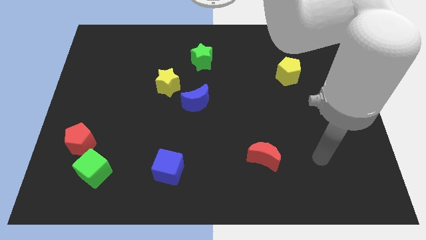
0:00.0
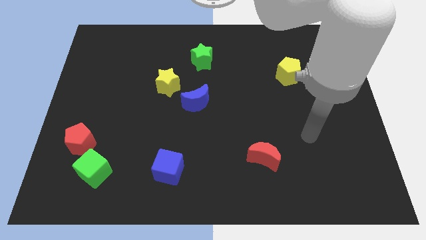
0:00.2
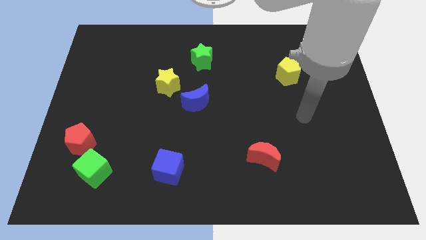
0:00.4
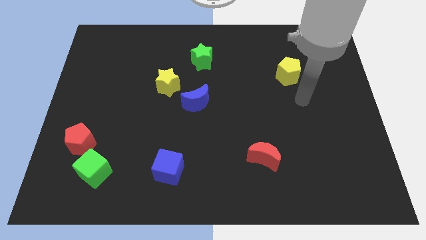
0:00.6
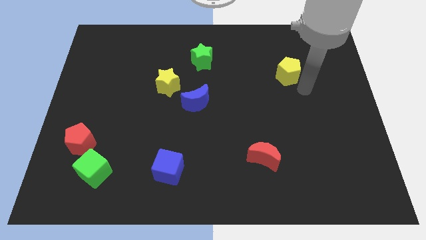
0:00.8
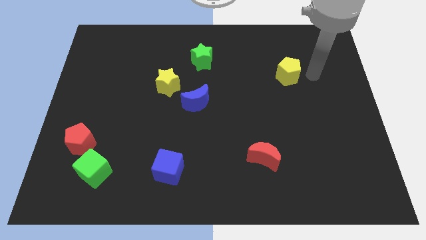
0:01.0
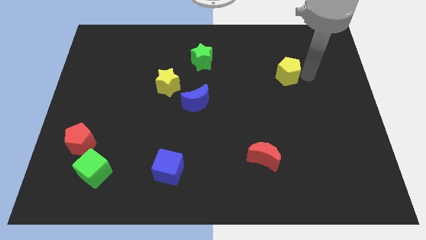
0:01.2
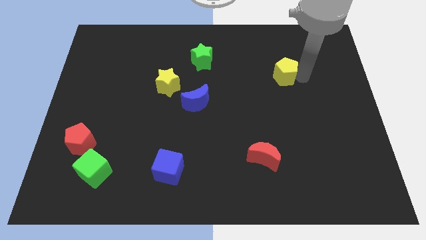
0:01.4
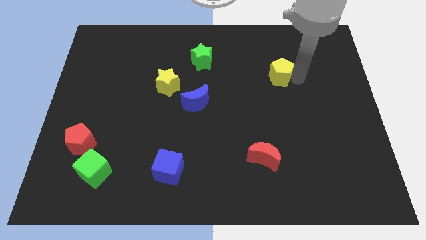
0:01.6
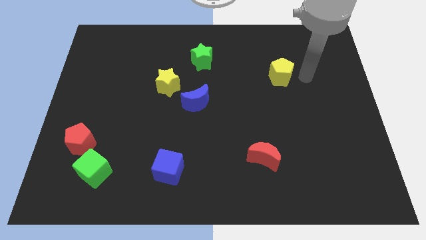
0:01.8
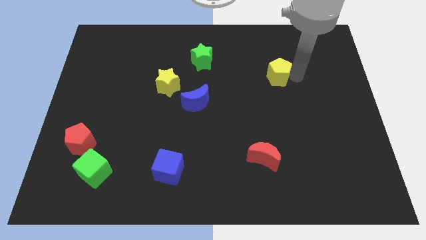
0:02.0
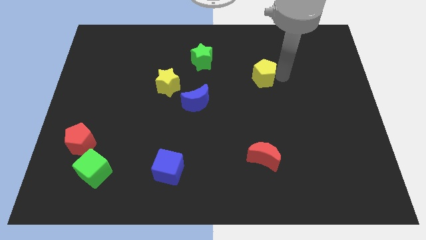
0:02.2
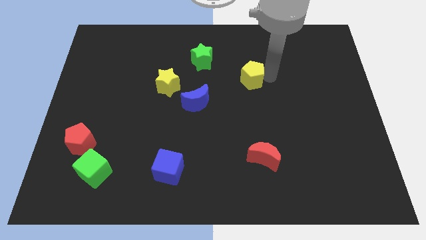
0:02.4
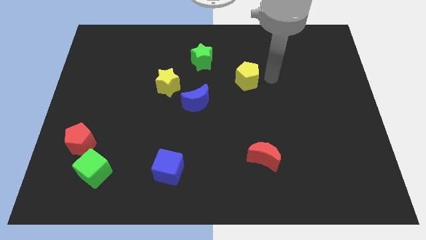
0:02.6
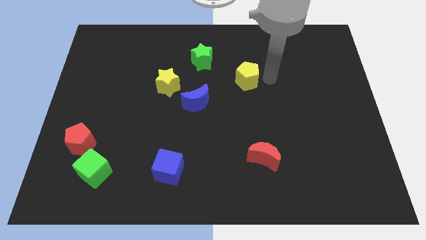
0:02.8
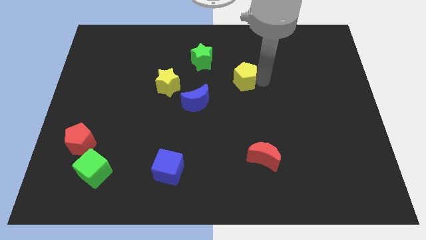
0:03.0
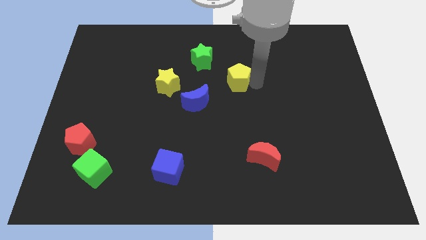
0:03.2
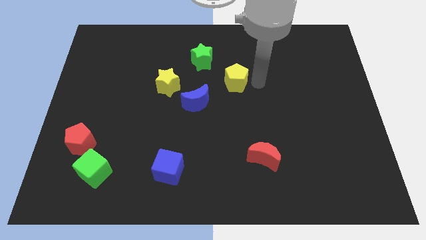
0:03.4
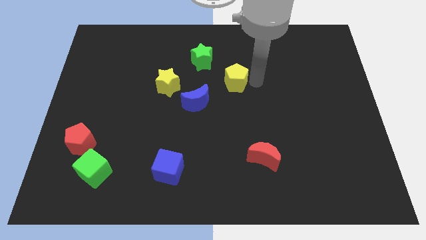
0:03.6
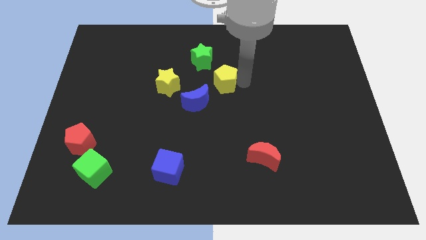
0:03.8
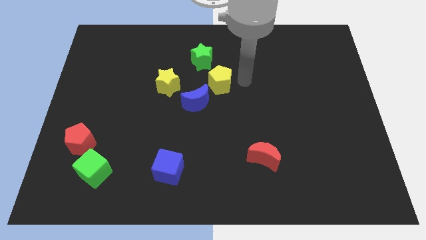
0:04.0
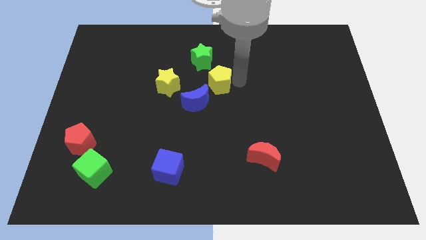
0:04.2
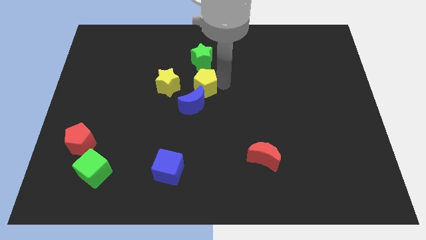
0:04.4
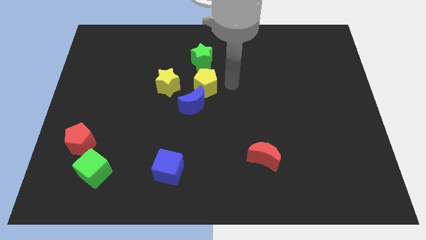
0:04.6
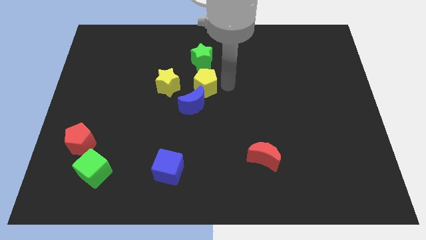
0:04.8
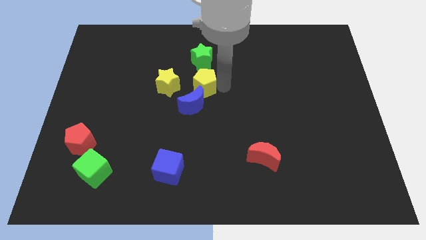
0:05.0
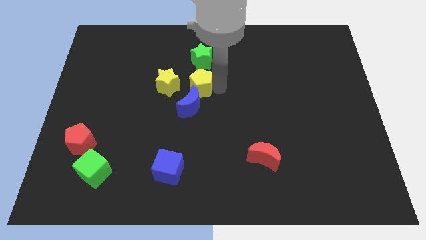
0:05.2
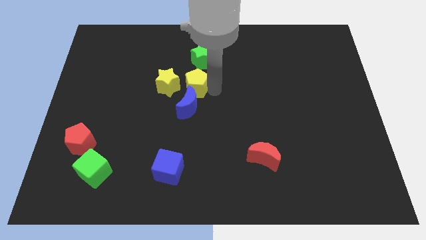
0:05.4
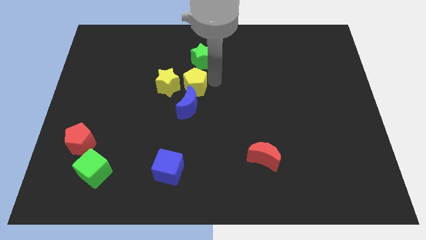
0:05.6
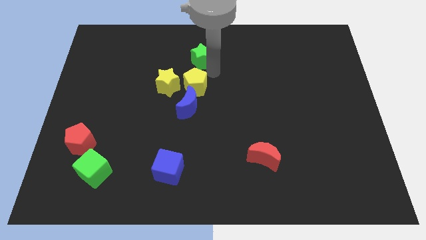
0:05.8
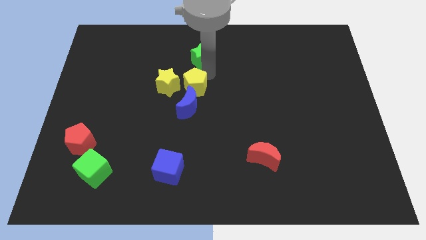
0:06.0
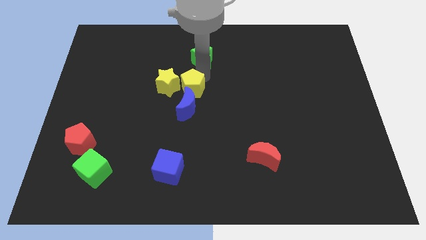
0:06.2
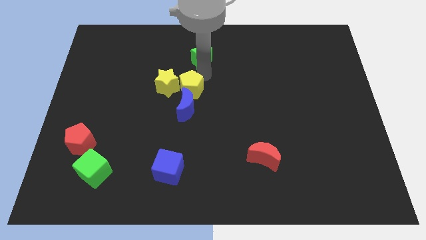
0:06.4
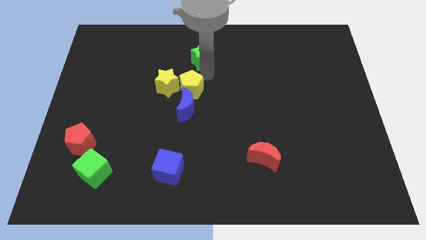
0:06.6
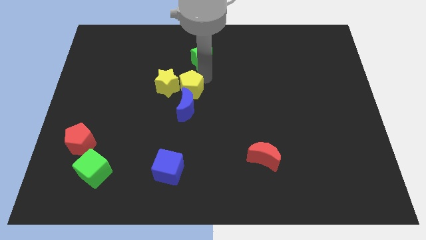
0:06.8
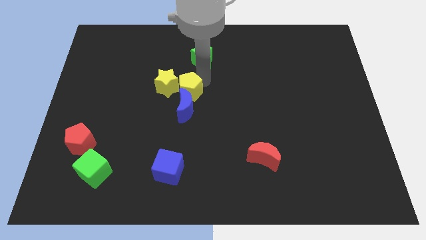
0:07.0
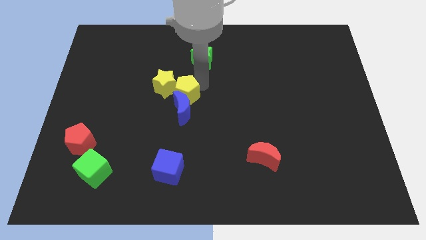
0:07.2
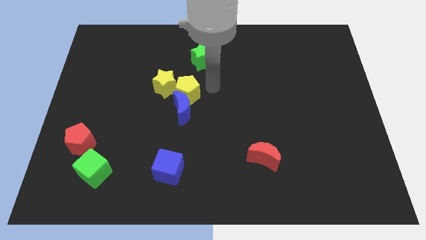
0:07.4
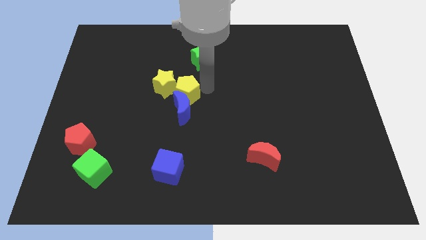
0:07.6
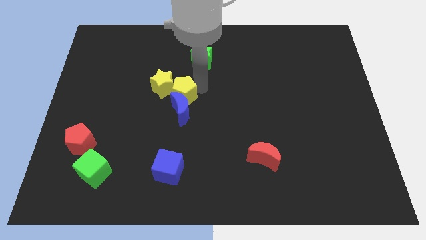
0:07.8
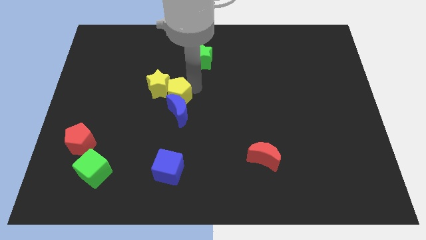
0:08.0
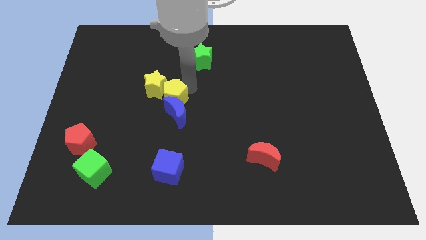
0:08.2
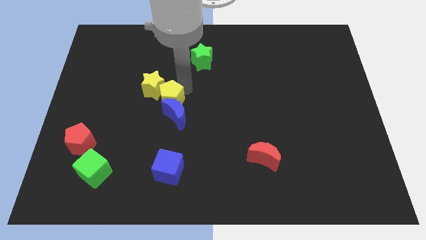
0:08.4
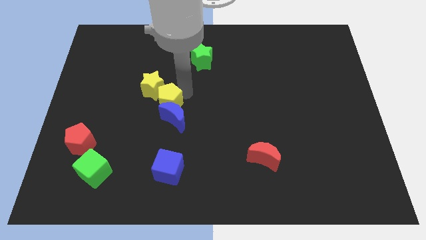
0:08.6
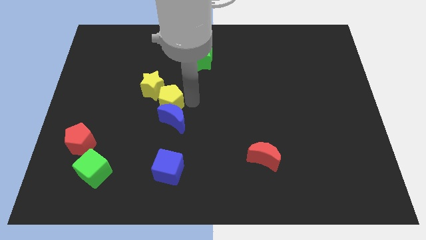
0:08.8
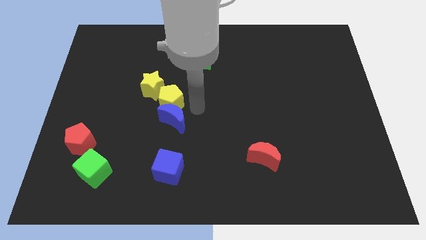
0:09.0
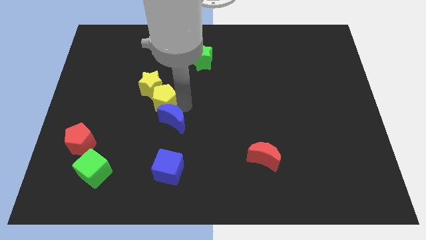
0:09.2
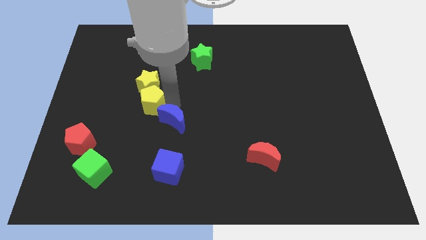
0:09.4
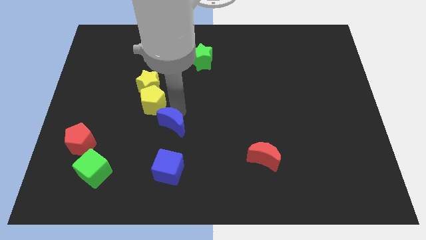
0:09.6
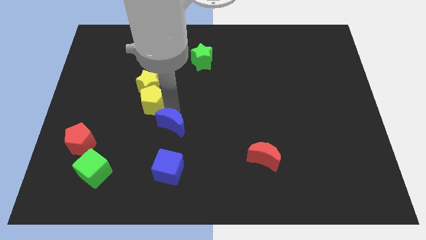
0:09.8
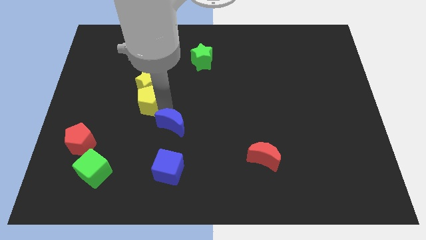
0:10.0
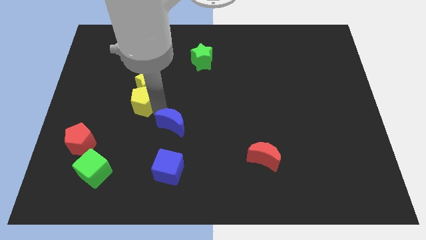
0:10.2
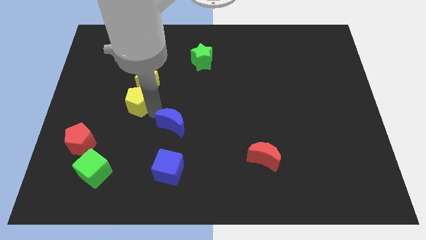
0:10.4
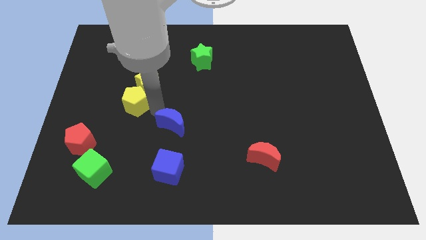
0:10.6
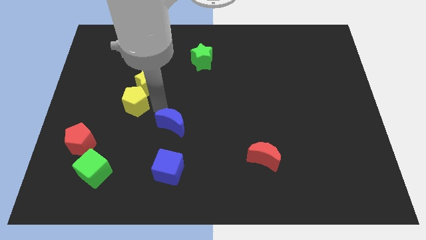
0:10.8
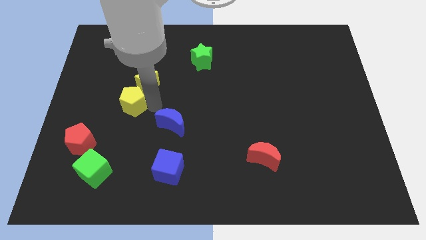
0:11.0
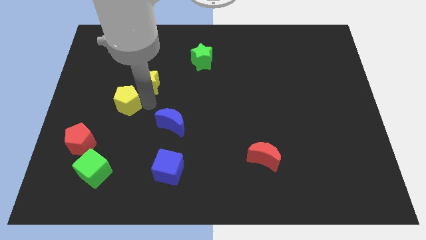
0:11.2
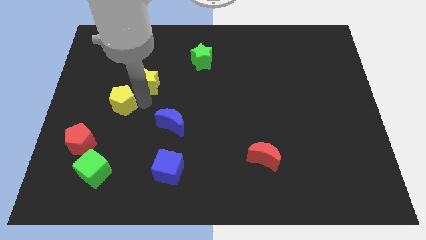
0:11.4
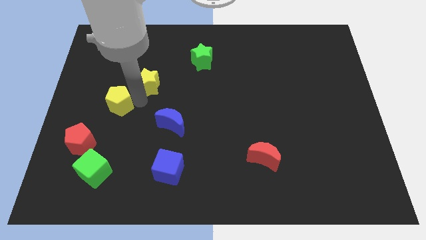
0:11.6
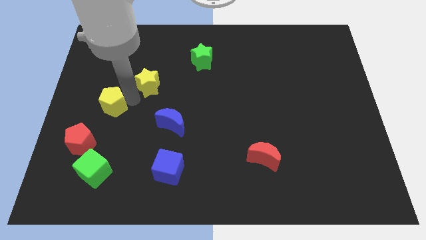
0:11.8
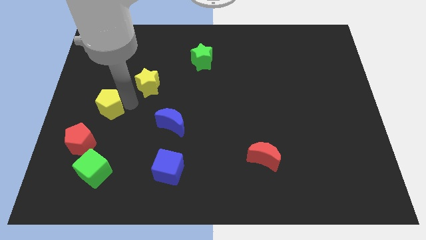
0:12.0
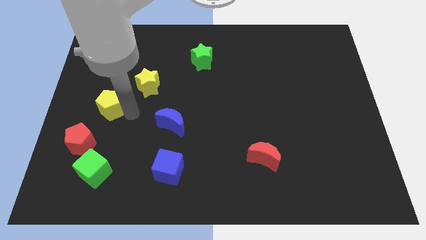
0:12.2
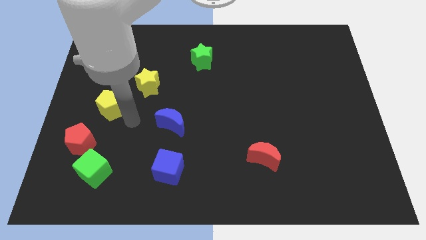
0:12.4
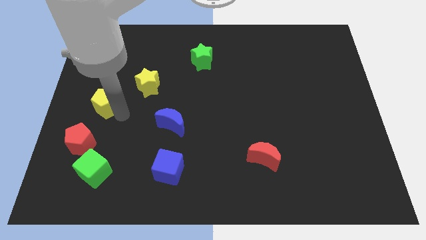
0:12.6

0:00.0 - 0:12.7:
move the yellow pentagon to the left side
